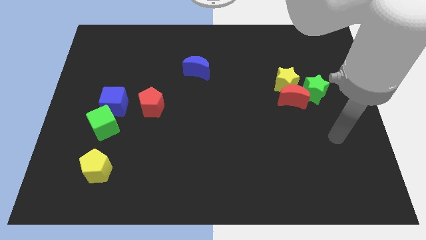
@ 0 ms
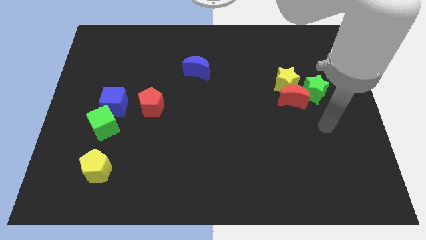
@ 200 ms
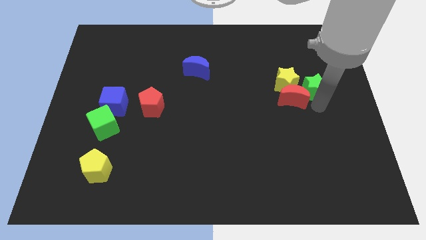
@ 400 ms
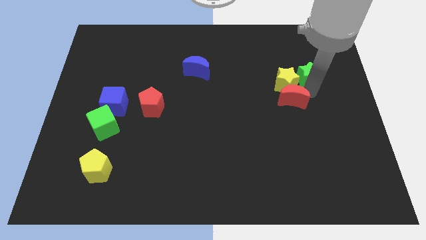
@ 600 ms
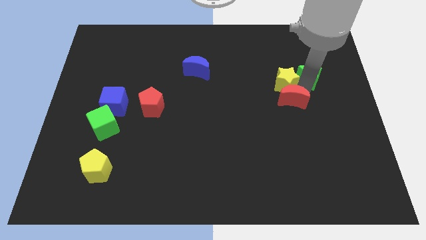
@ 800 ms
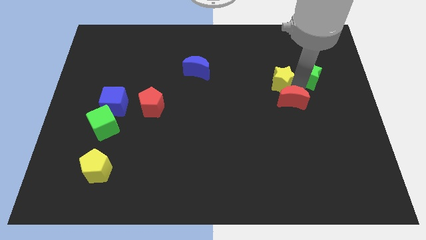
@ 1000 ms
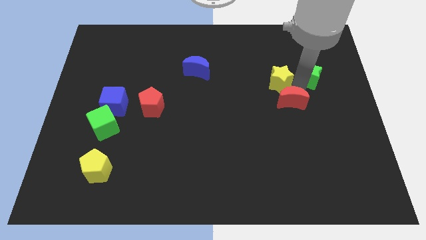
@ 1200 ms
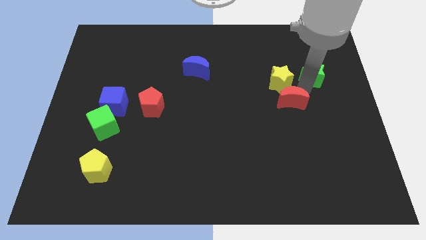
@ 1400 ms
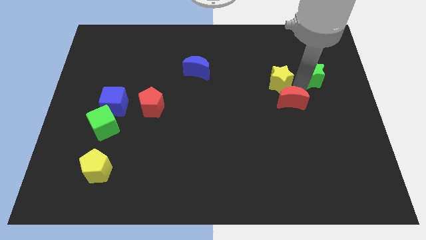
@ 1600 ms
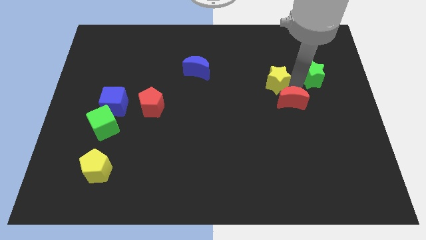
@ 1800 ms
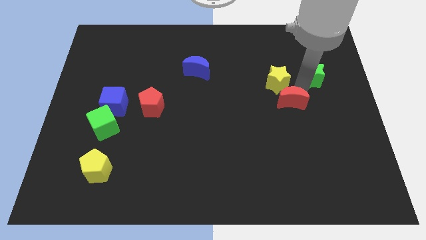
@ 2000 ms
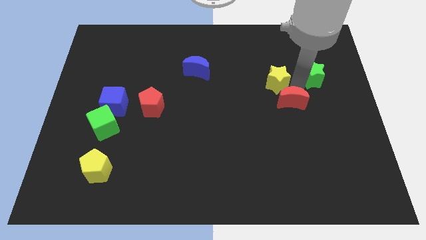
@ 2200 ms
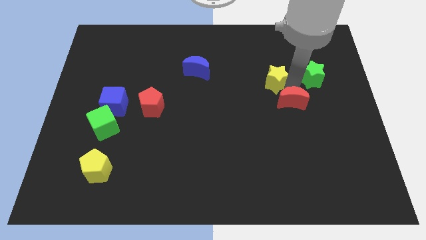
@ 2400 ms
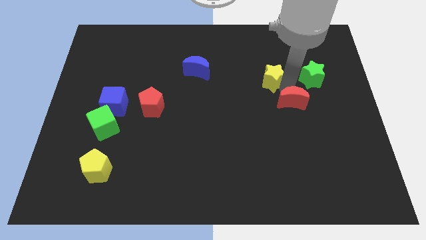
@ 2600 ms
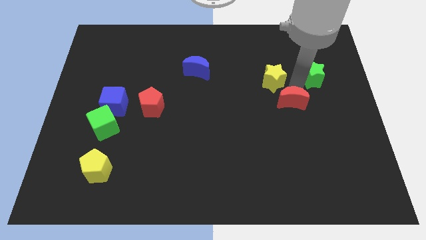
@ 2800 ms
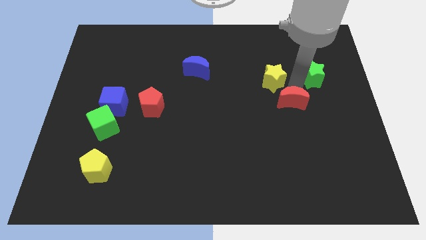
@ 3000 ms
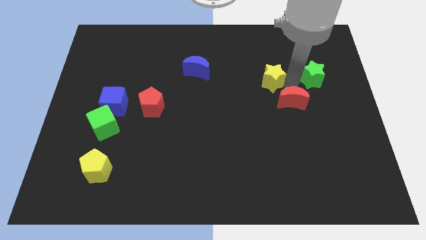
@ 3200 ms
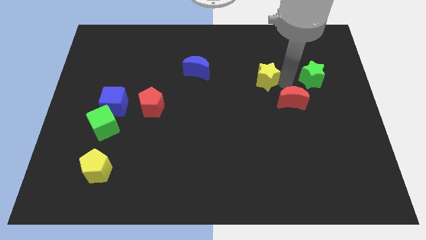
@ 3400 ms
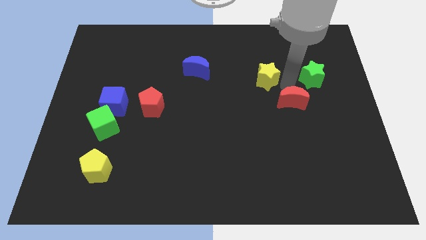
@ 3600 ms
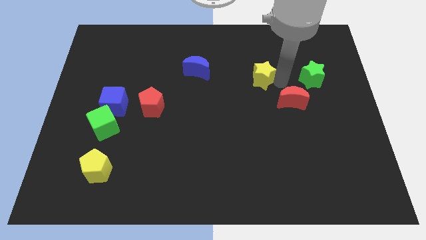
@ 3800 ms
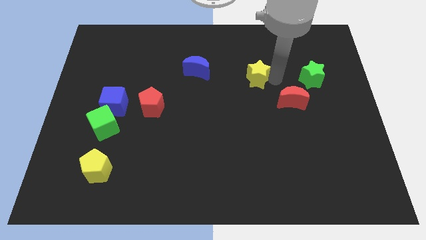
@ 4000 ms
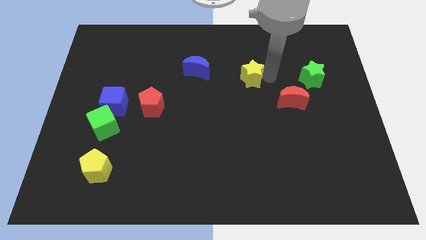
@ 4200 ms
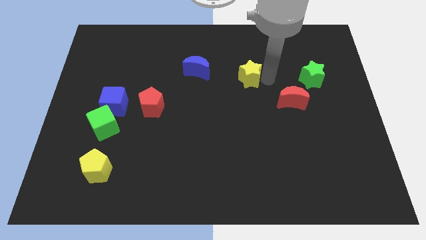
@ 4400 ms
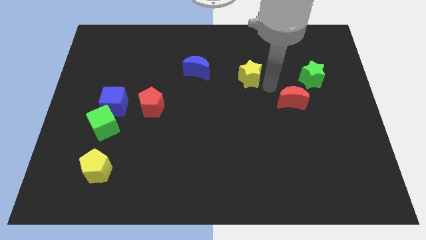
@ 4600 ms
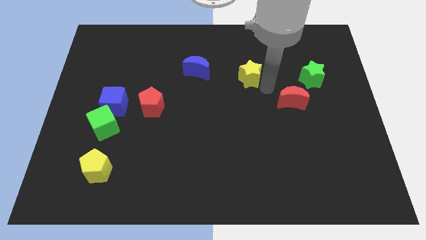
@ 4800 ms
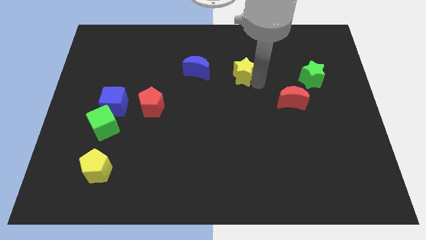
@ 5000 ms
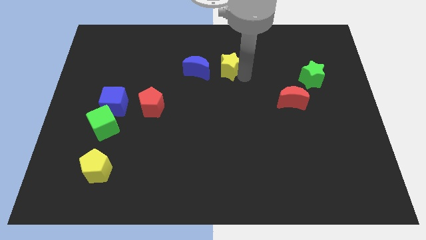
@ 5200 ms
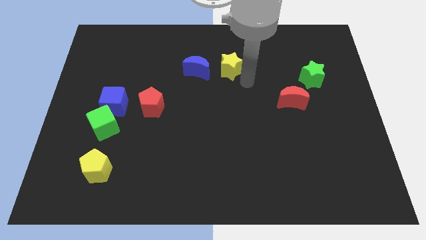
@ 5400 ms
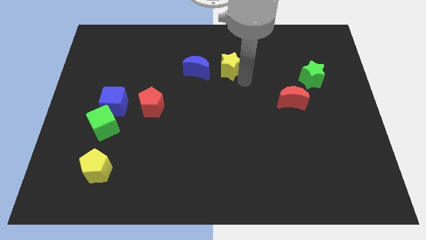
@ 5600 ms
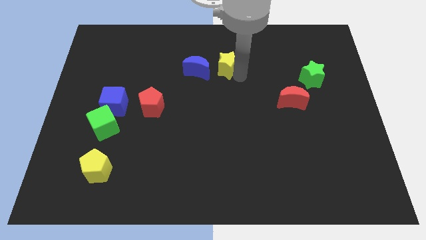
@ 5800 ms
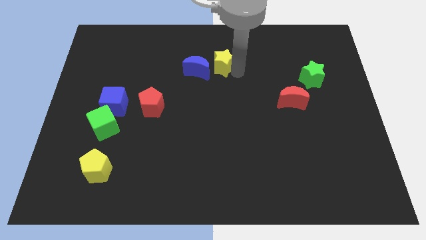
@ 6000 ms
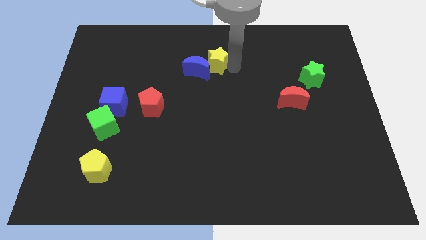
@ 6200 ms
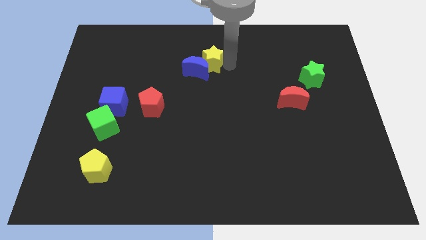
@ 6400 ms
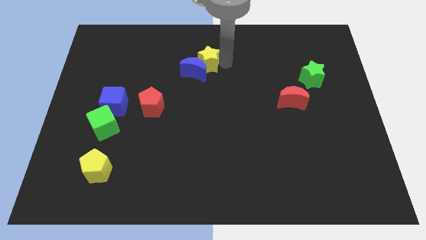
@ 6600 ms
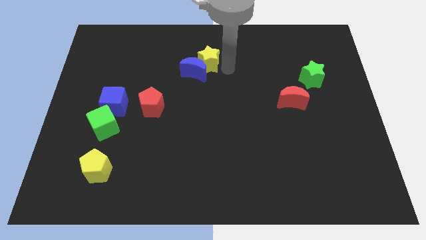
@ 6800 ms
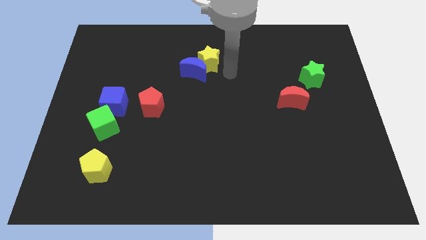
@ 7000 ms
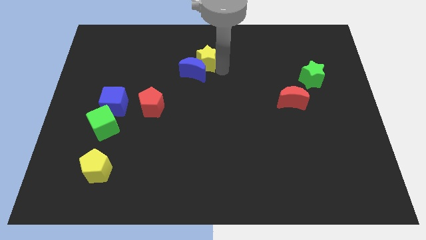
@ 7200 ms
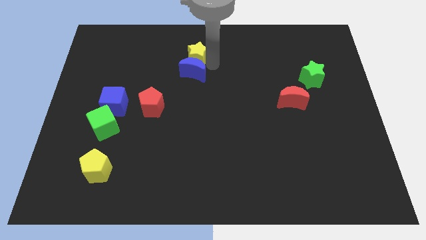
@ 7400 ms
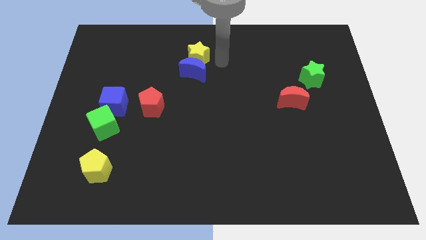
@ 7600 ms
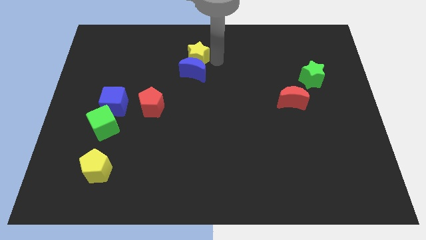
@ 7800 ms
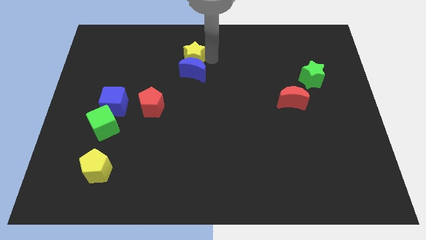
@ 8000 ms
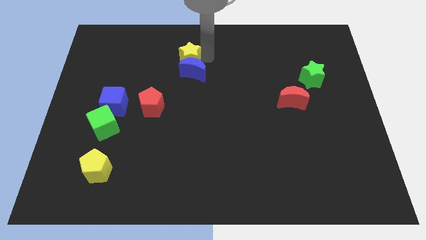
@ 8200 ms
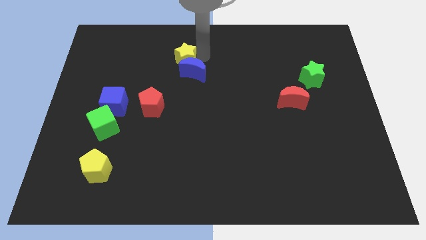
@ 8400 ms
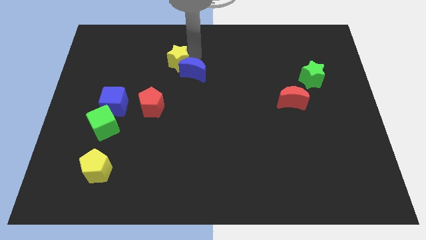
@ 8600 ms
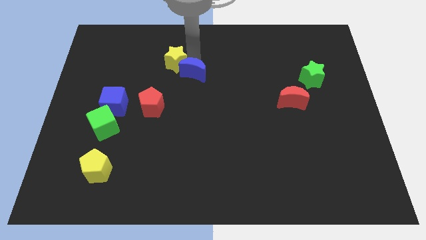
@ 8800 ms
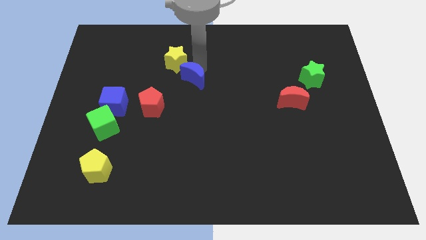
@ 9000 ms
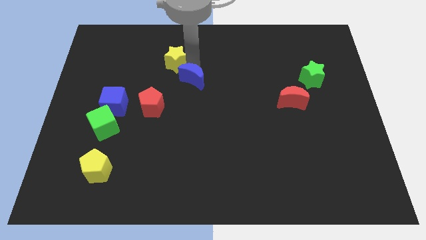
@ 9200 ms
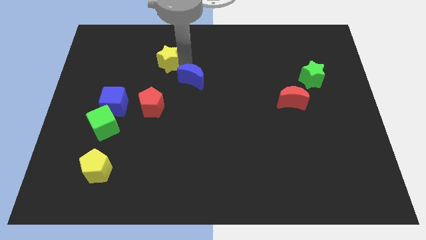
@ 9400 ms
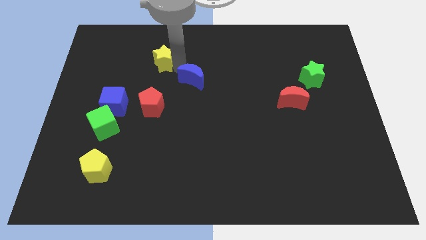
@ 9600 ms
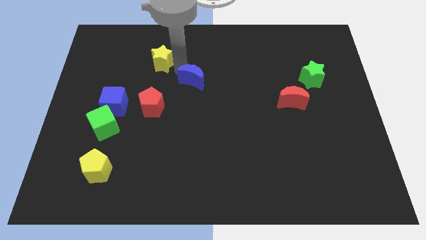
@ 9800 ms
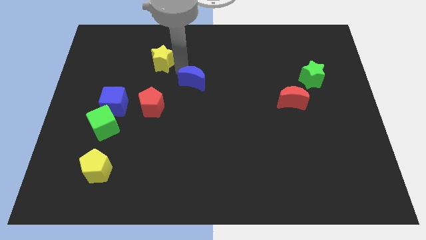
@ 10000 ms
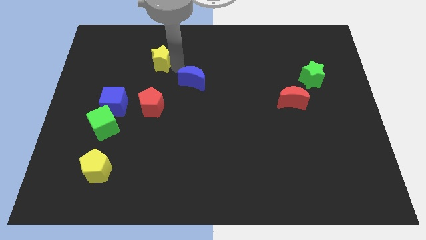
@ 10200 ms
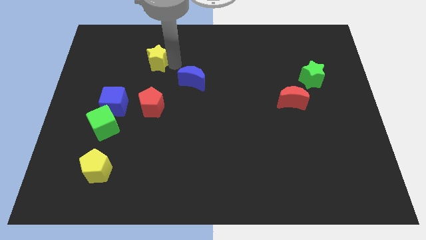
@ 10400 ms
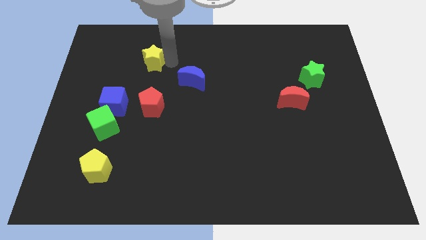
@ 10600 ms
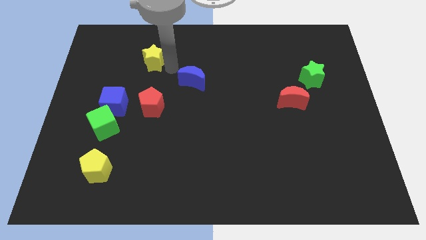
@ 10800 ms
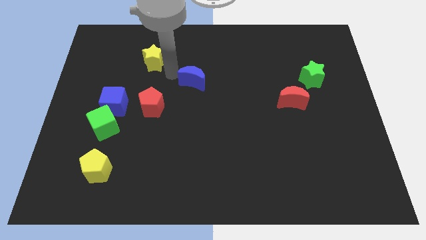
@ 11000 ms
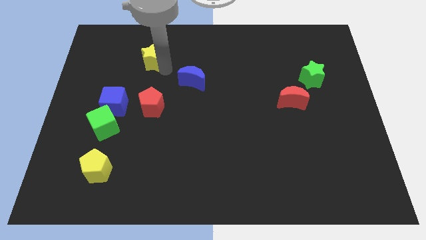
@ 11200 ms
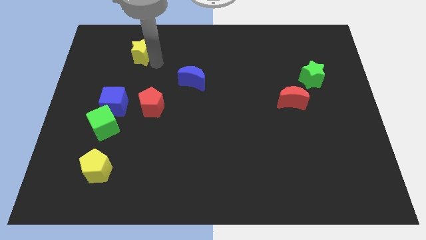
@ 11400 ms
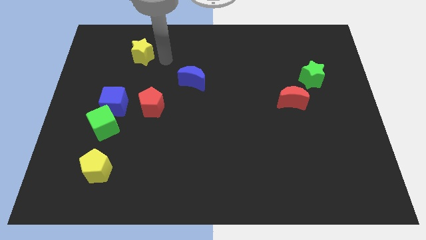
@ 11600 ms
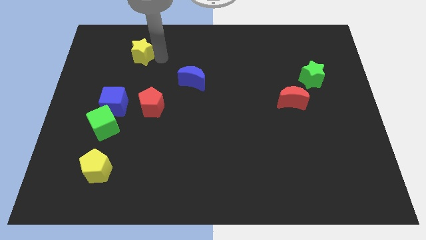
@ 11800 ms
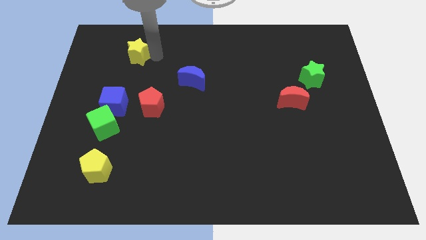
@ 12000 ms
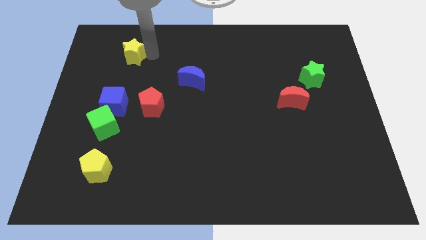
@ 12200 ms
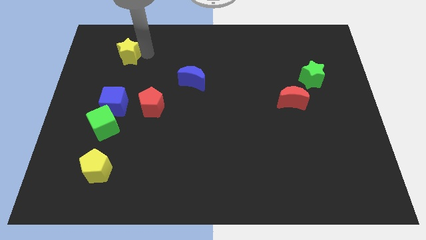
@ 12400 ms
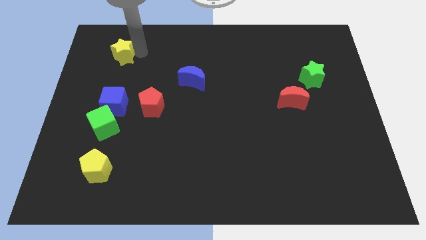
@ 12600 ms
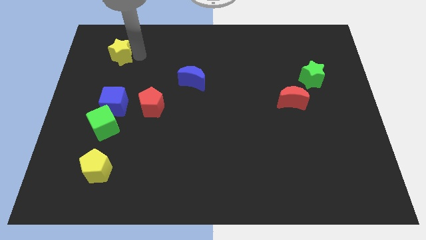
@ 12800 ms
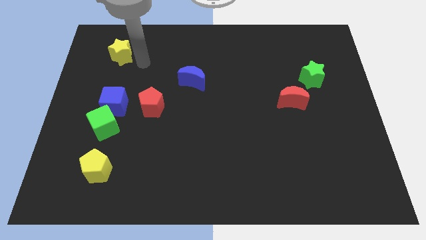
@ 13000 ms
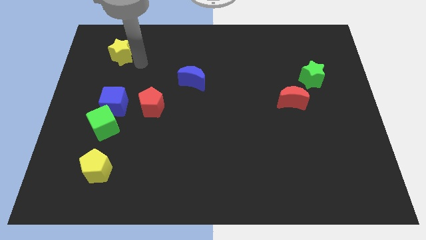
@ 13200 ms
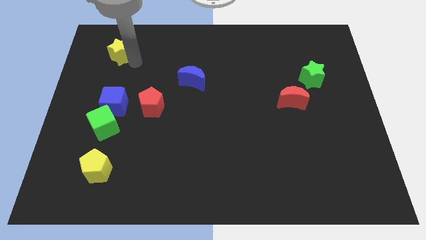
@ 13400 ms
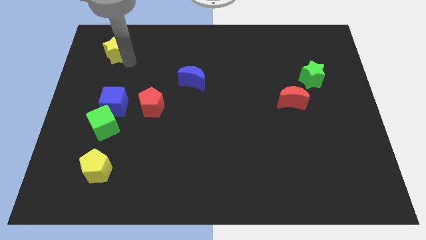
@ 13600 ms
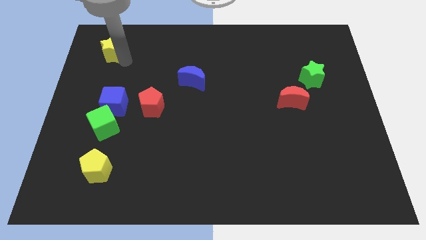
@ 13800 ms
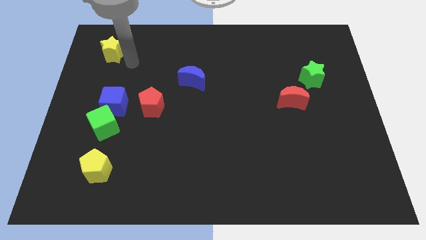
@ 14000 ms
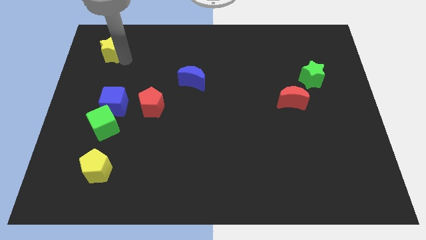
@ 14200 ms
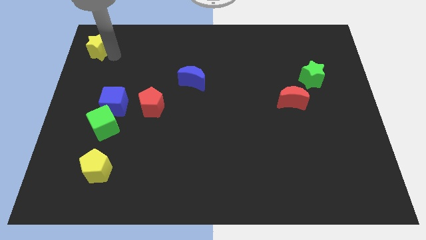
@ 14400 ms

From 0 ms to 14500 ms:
push the yellow star to the top left corner
